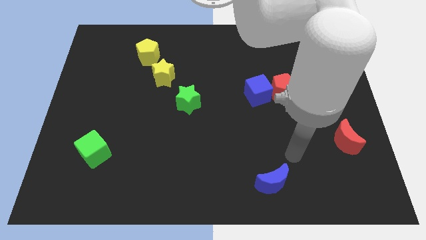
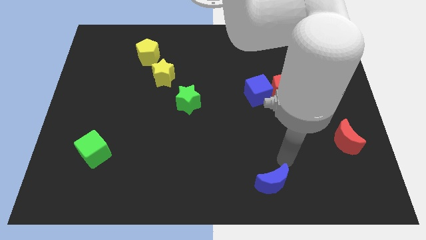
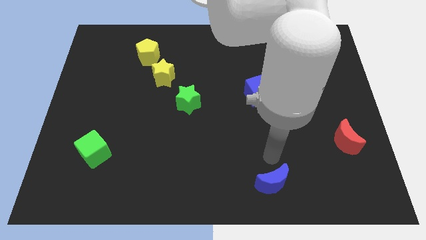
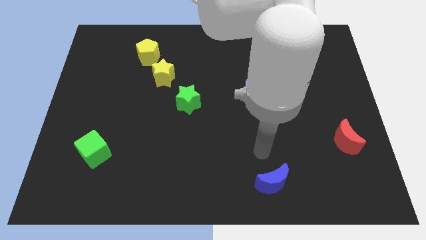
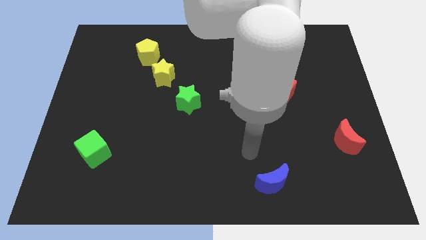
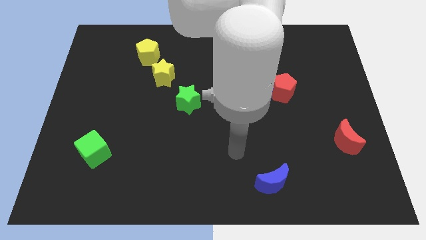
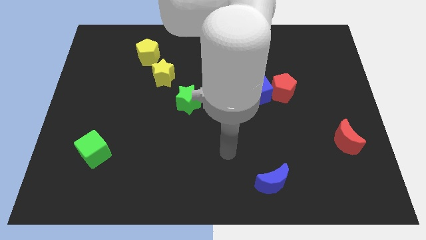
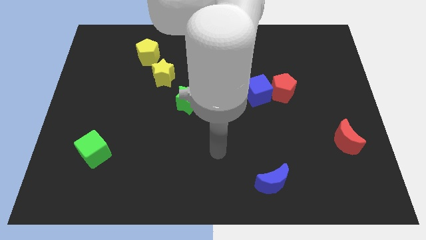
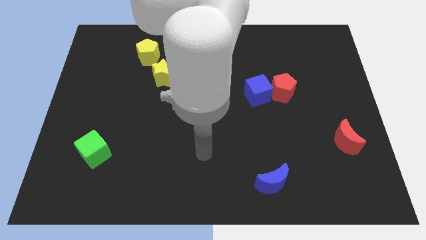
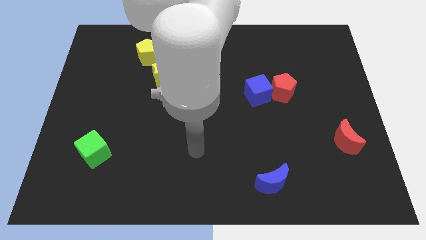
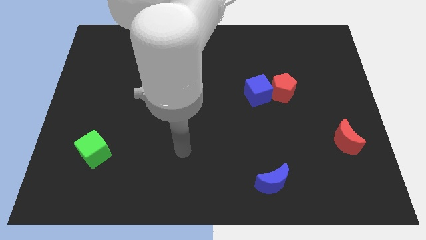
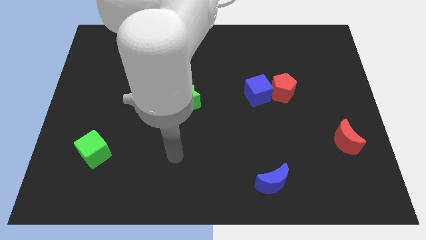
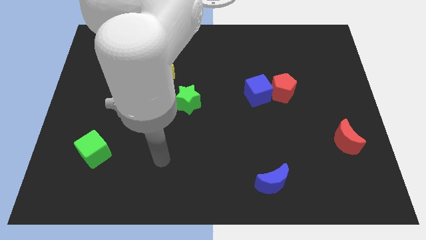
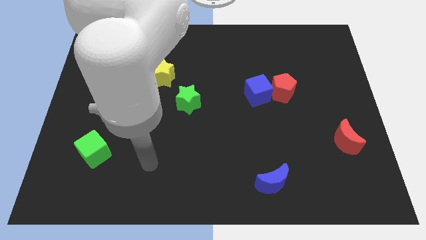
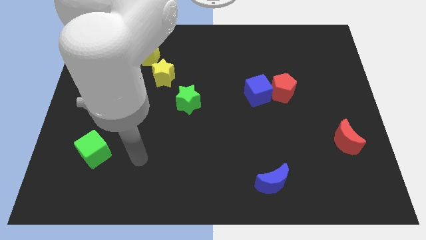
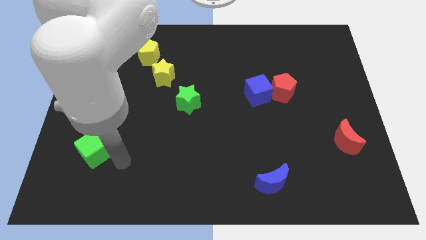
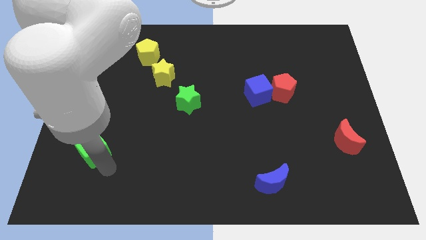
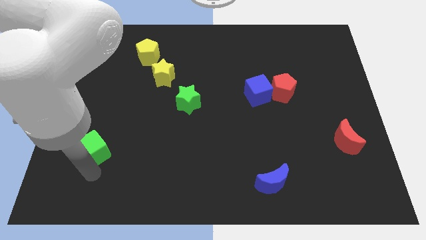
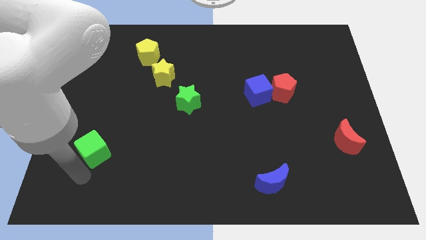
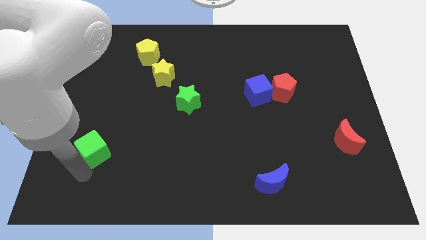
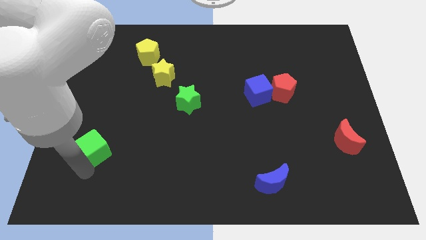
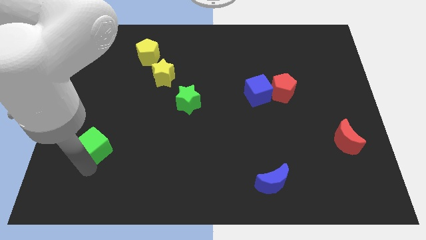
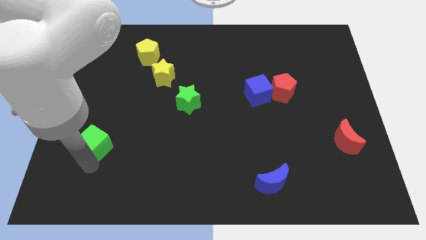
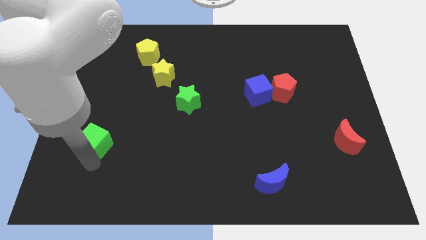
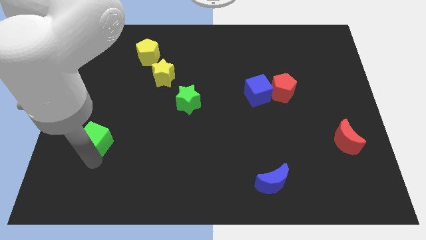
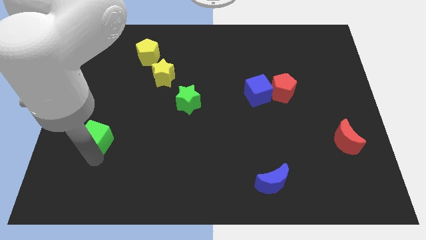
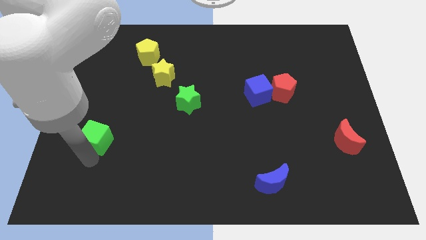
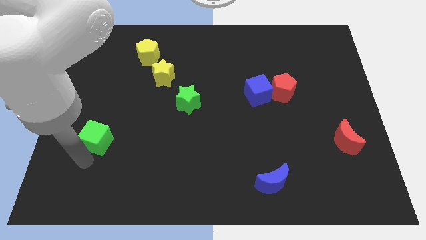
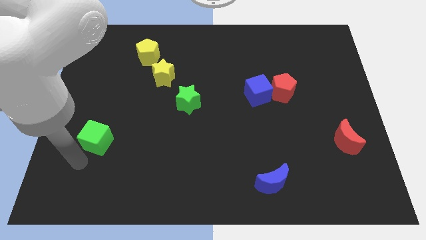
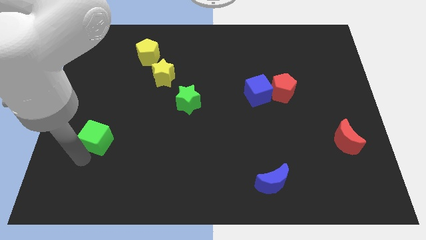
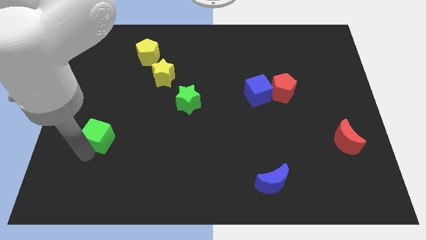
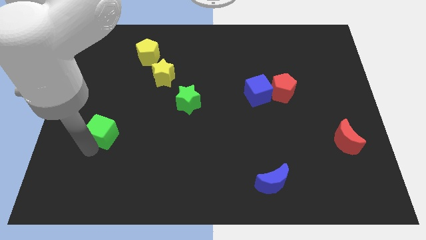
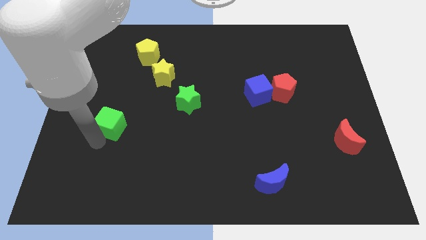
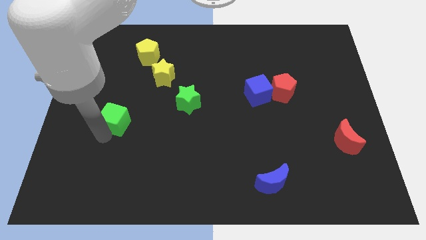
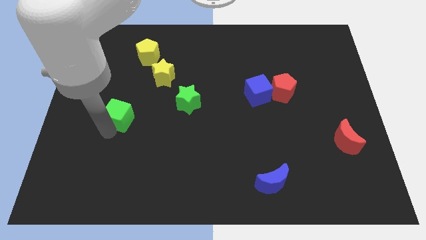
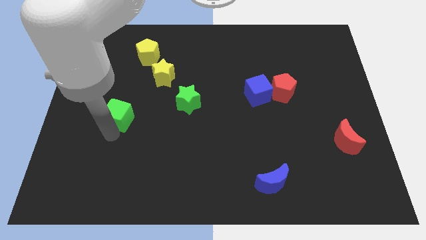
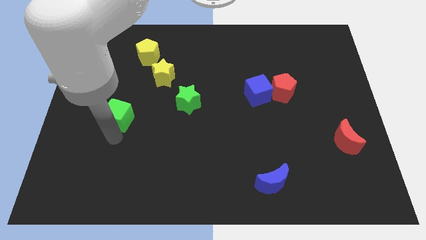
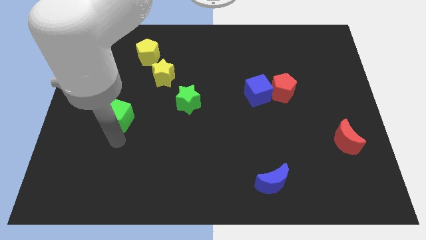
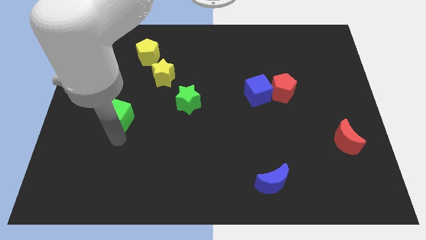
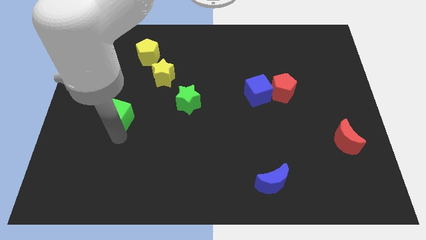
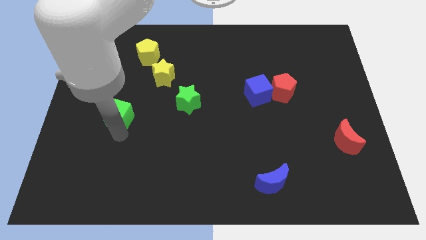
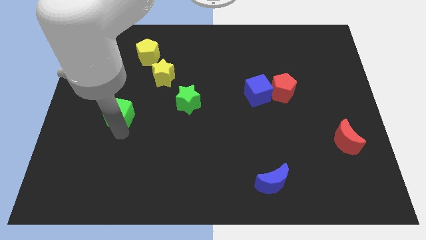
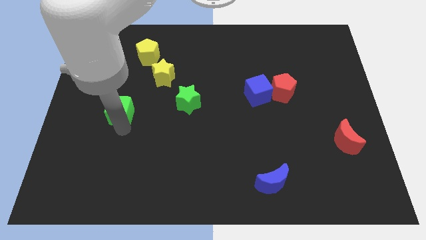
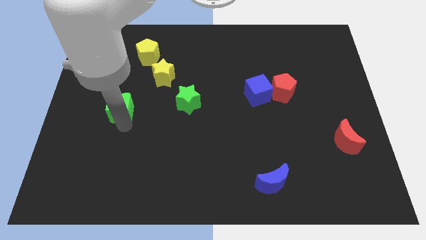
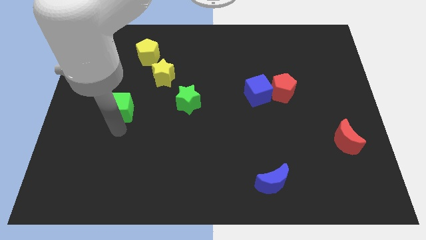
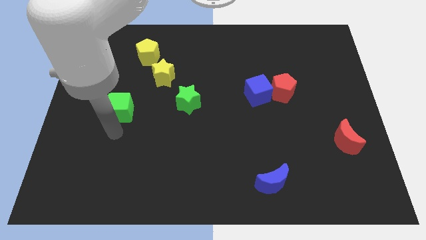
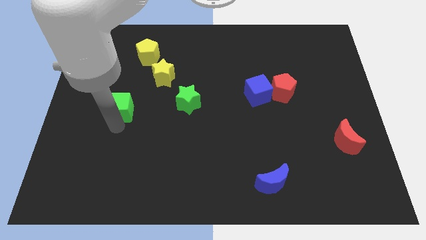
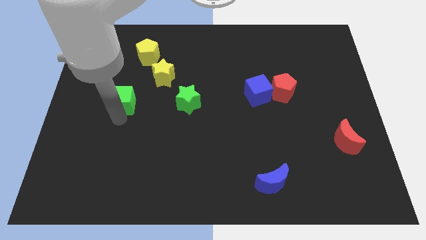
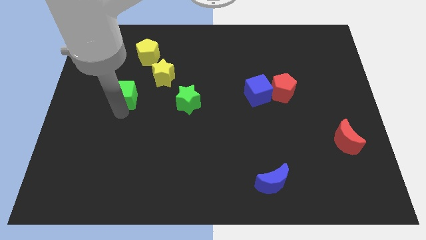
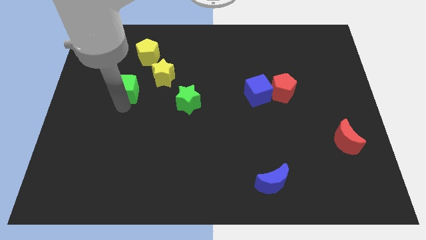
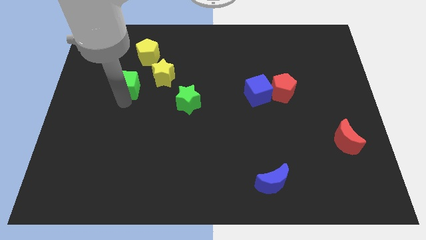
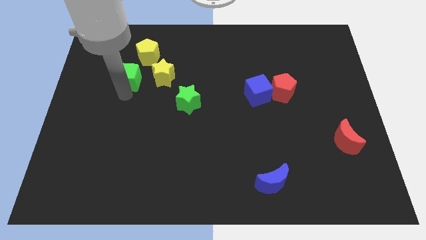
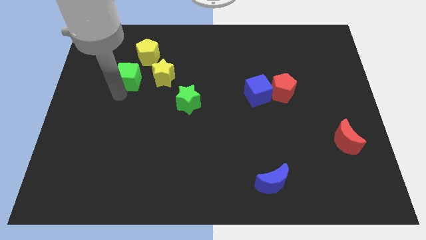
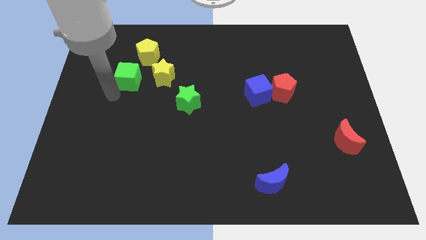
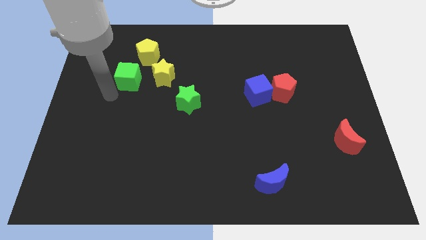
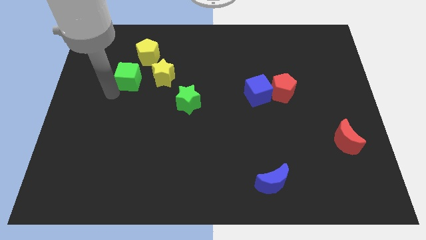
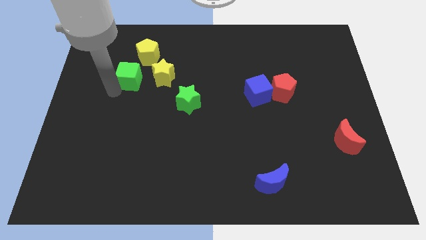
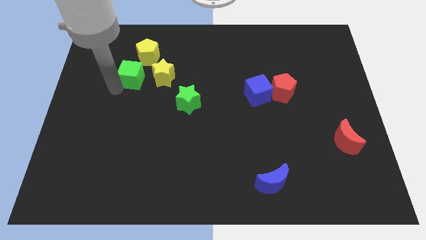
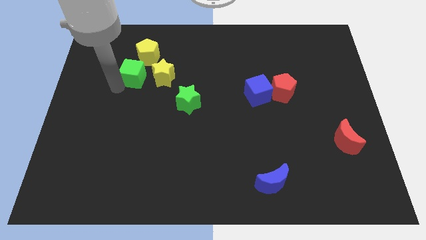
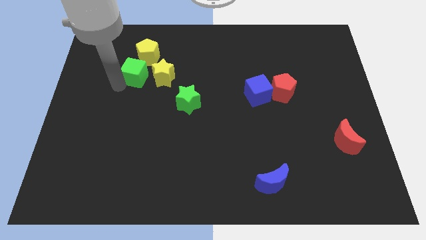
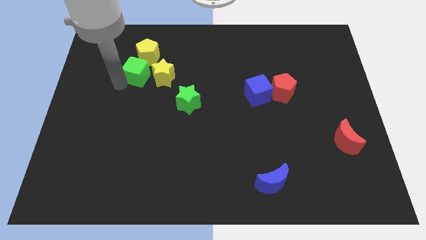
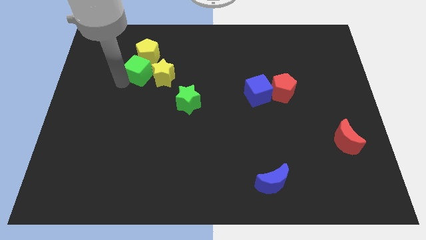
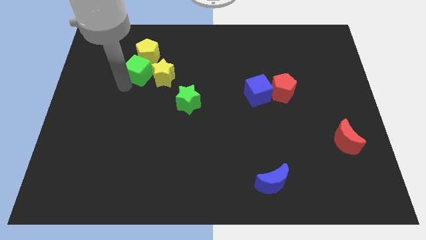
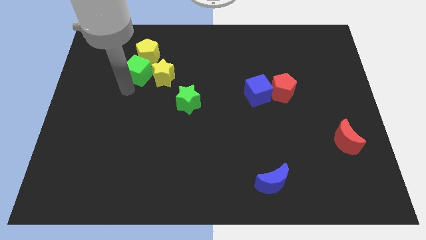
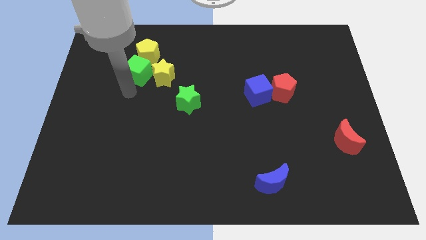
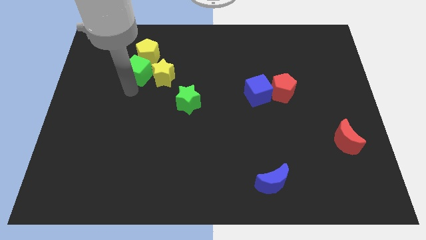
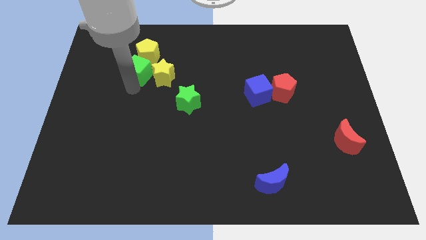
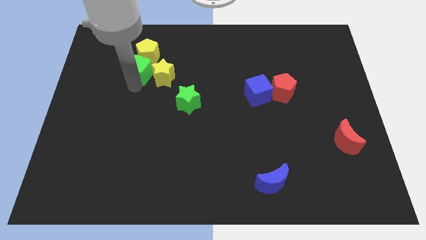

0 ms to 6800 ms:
move the green cube to the yellow pentagon

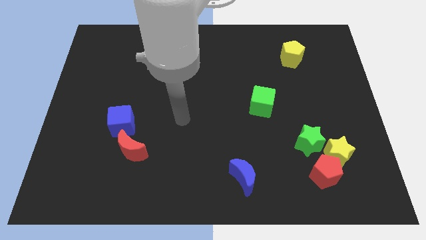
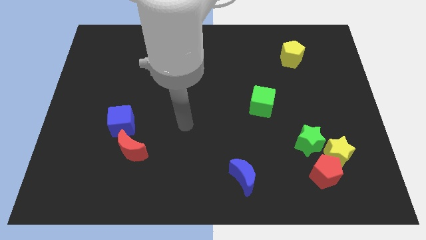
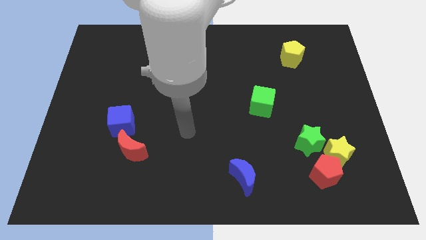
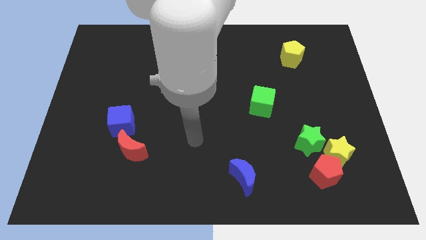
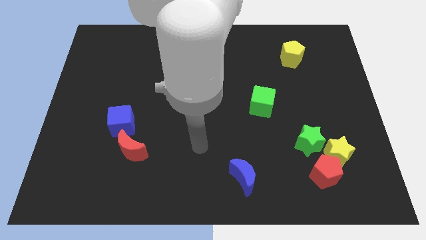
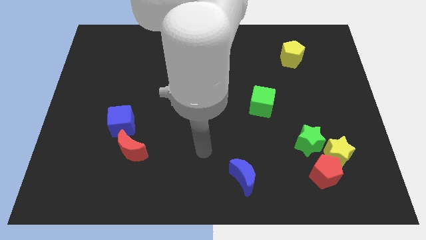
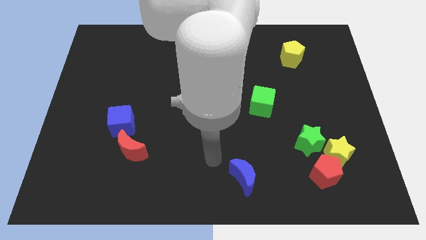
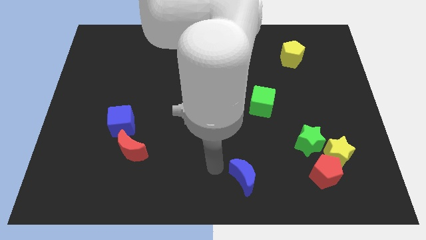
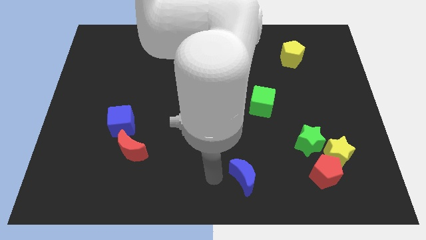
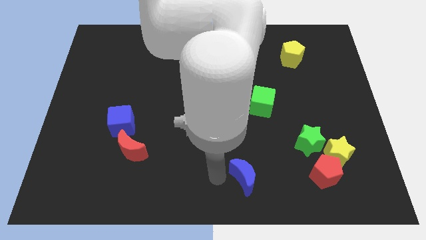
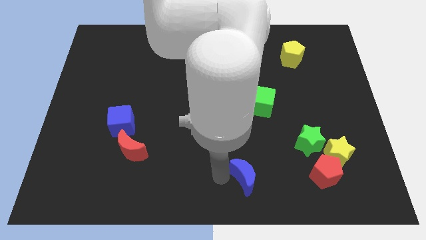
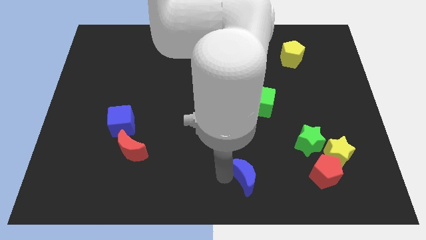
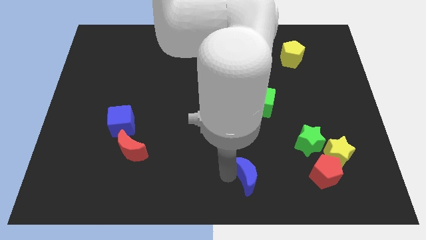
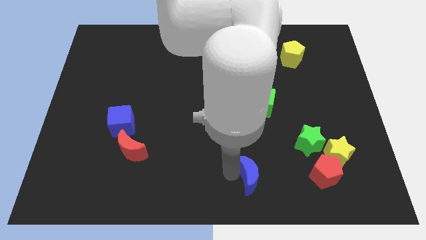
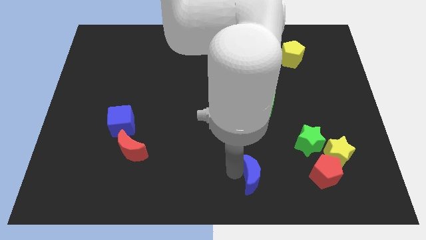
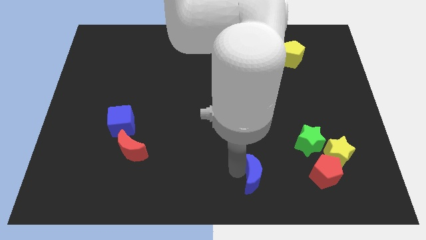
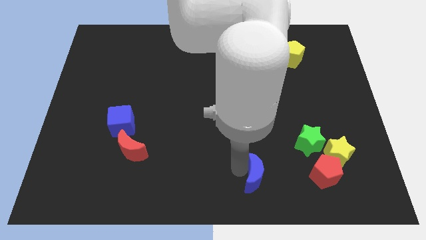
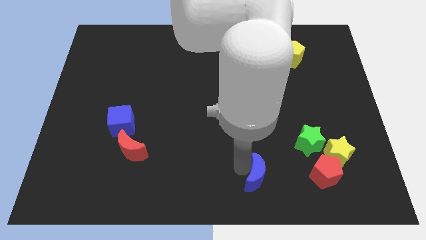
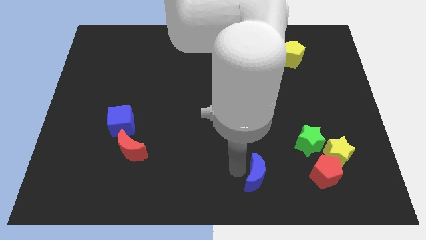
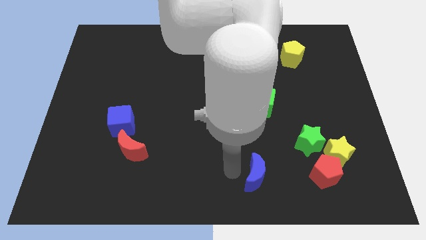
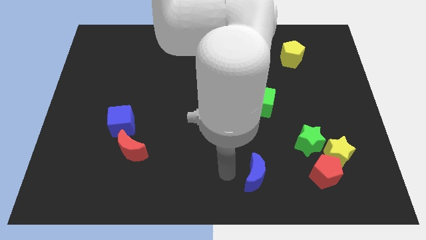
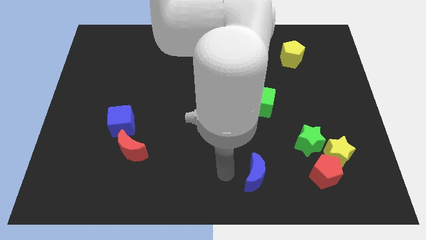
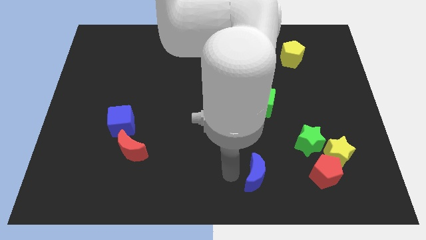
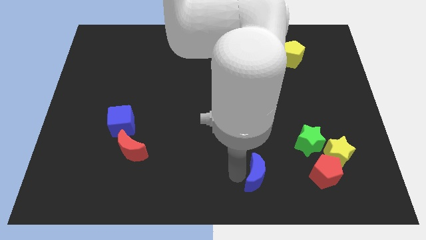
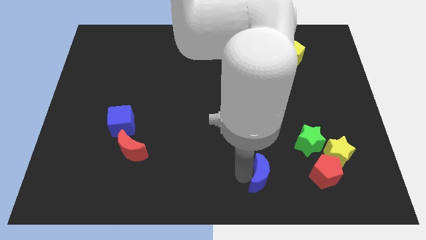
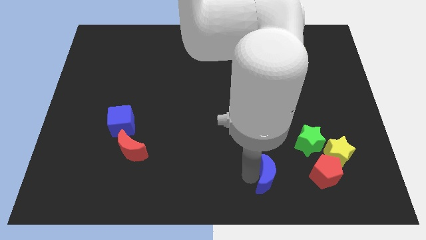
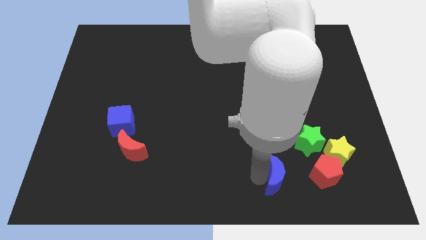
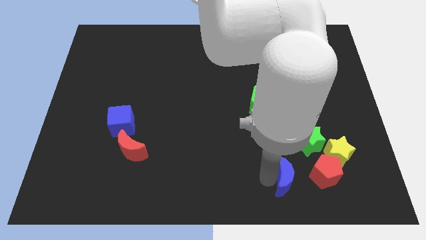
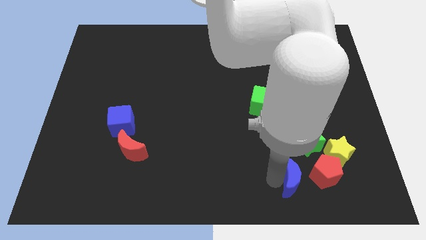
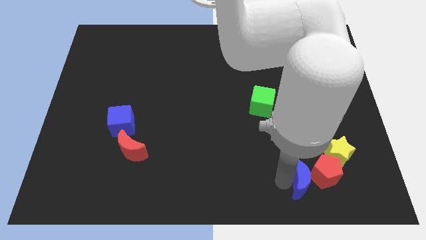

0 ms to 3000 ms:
slide the blue moon towards the red pentagon
